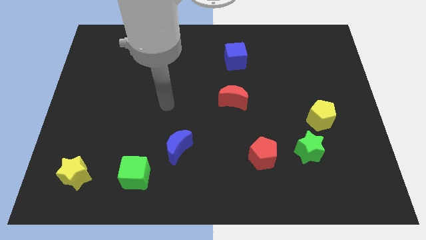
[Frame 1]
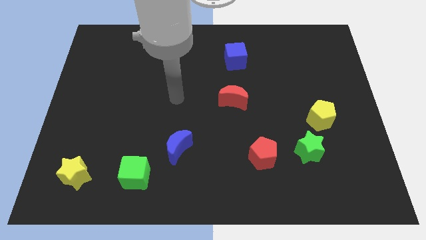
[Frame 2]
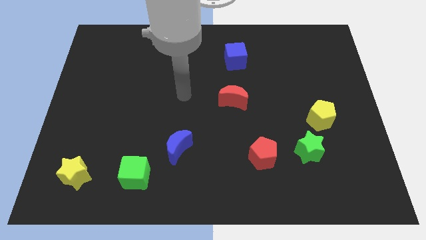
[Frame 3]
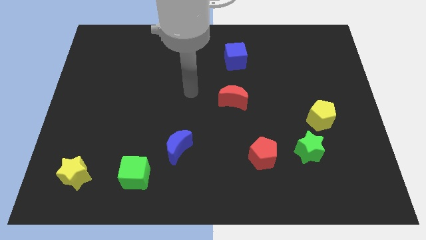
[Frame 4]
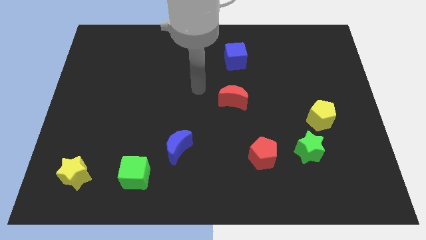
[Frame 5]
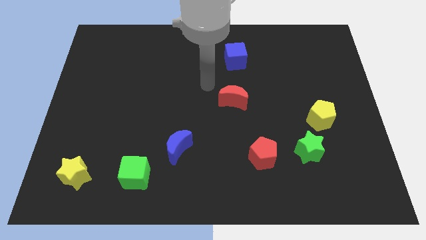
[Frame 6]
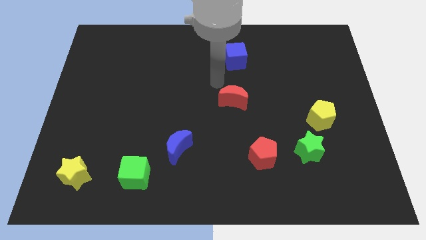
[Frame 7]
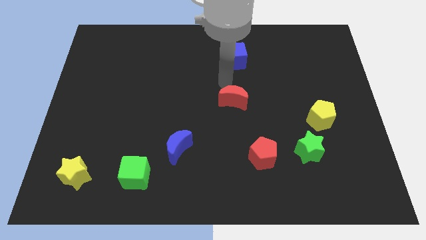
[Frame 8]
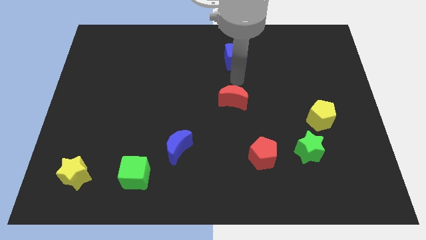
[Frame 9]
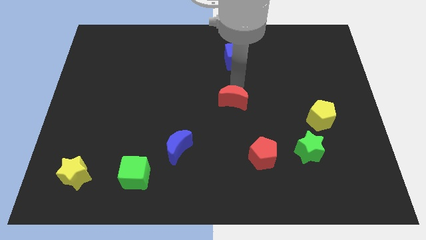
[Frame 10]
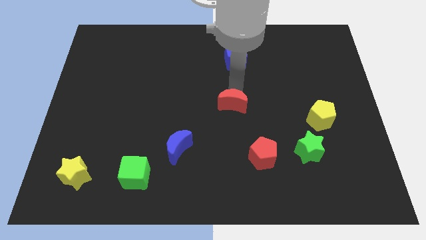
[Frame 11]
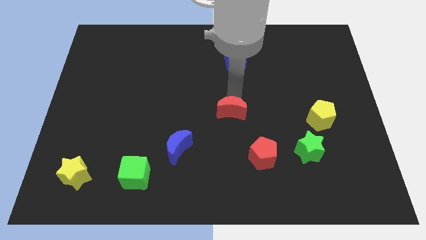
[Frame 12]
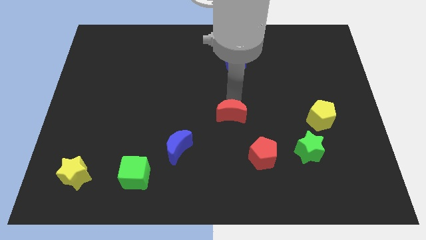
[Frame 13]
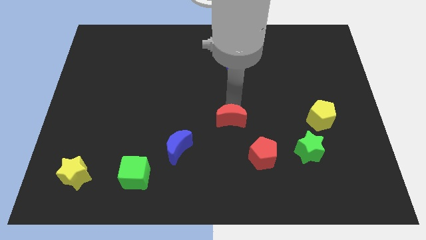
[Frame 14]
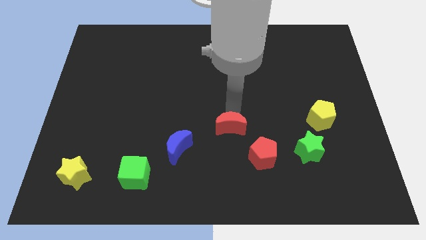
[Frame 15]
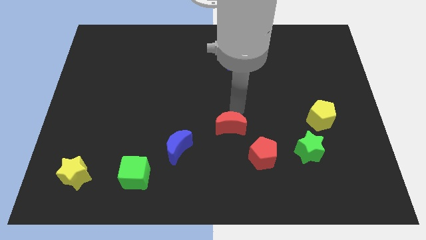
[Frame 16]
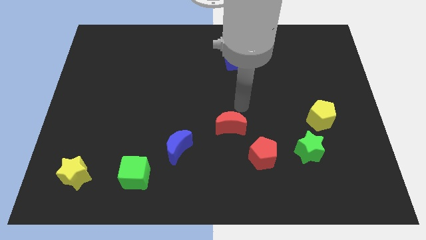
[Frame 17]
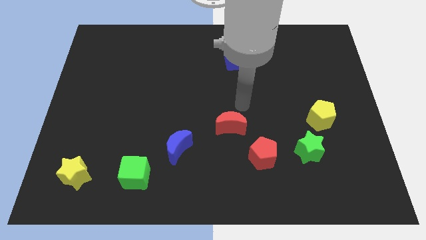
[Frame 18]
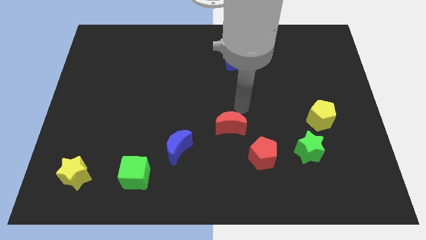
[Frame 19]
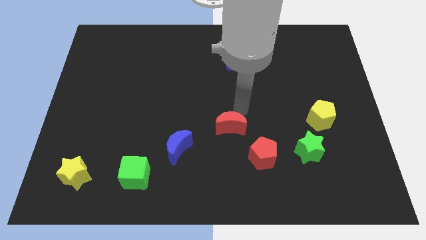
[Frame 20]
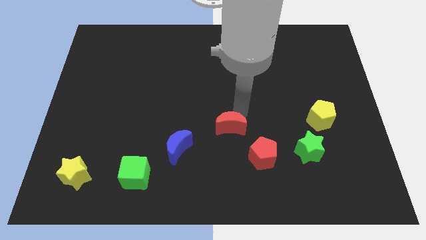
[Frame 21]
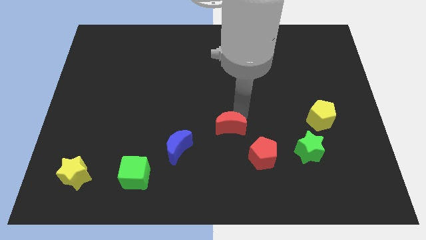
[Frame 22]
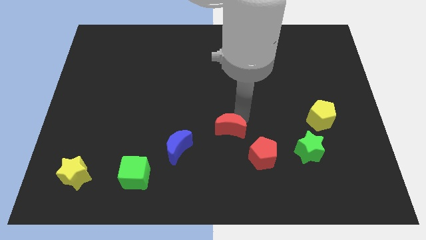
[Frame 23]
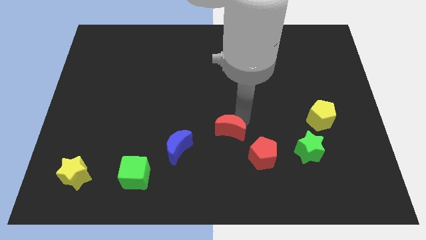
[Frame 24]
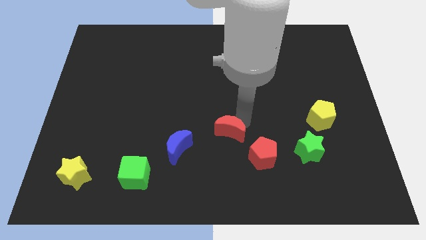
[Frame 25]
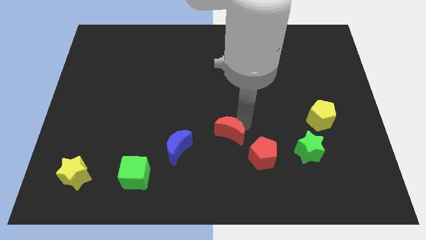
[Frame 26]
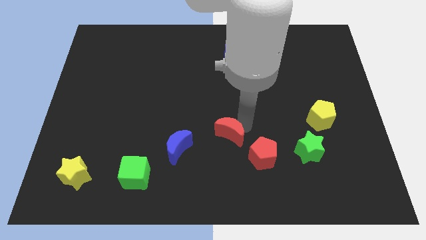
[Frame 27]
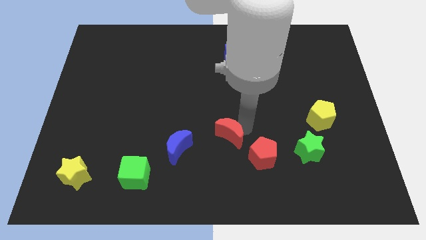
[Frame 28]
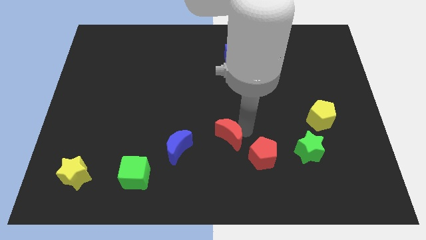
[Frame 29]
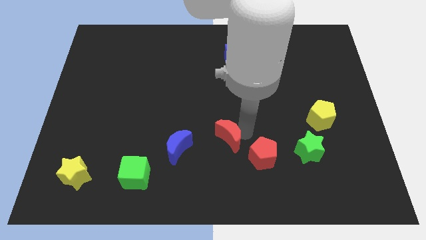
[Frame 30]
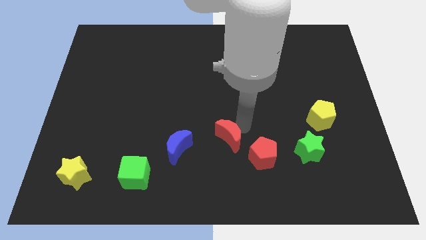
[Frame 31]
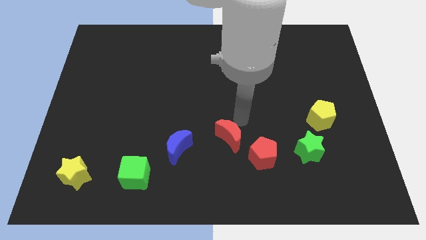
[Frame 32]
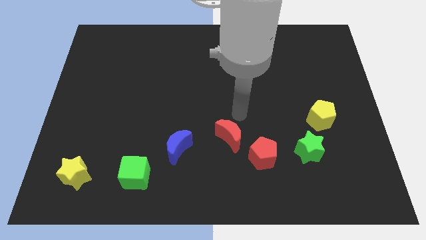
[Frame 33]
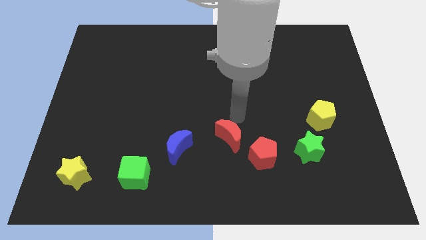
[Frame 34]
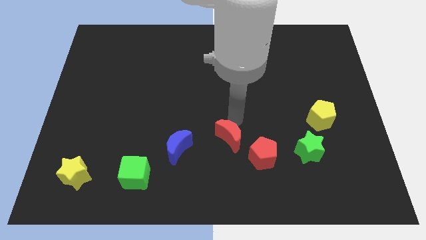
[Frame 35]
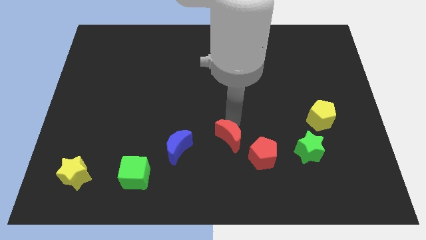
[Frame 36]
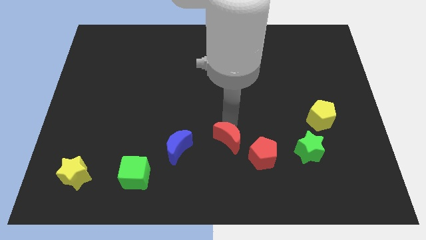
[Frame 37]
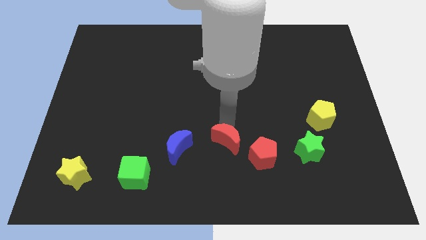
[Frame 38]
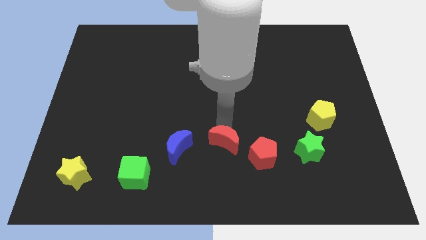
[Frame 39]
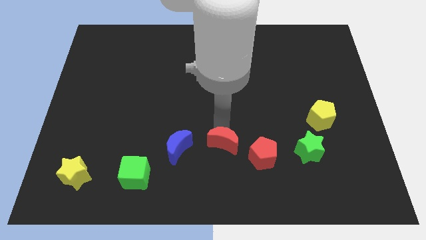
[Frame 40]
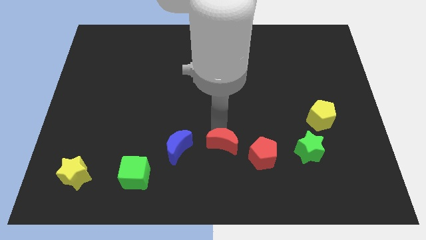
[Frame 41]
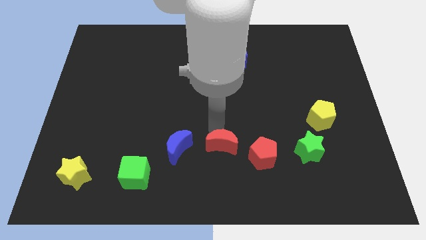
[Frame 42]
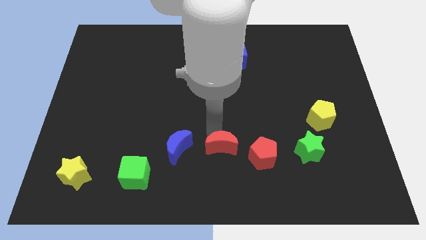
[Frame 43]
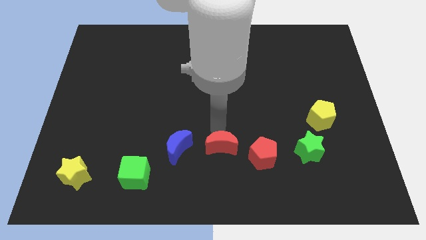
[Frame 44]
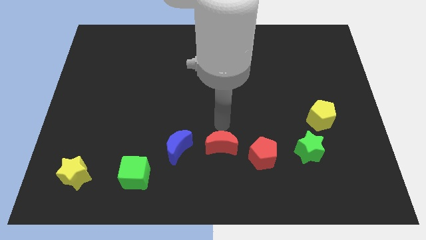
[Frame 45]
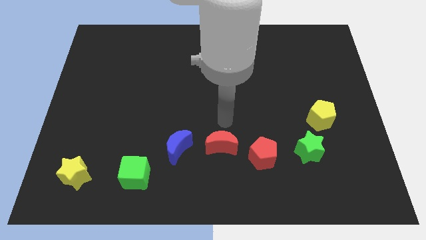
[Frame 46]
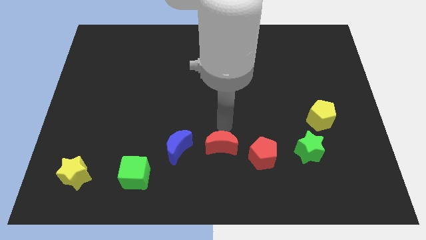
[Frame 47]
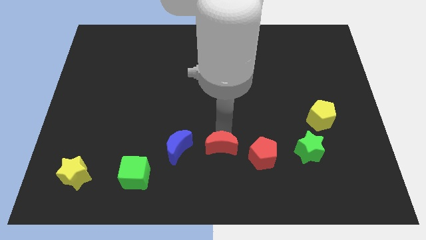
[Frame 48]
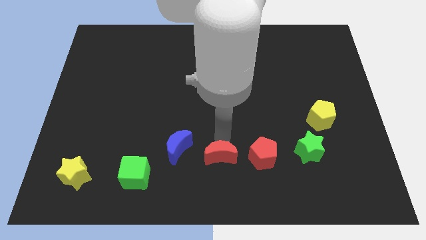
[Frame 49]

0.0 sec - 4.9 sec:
push the red moon to the bottom

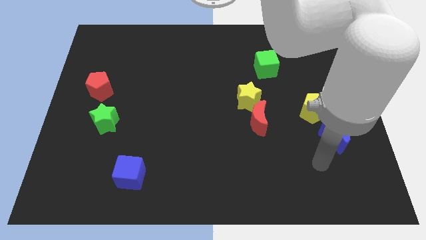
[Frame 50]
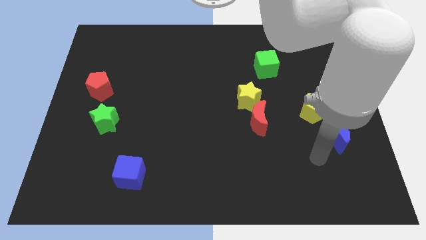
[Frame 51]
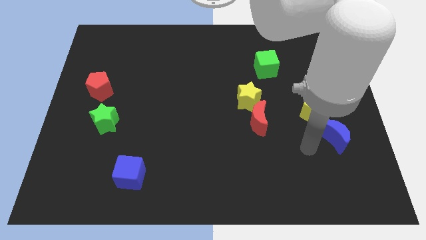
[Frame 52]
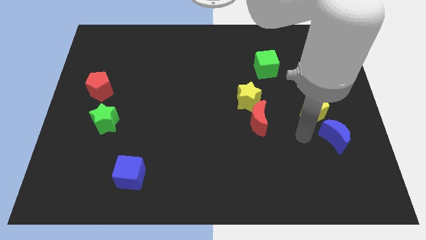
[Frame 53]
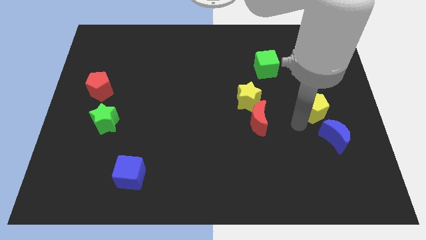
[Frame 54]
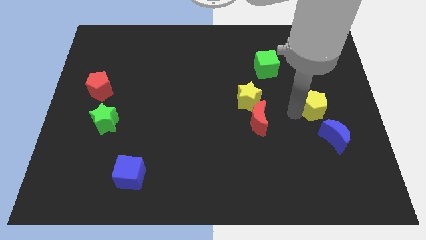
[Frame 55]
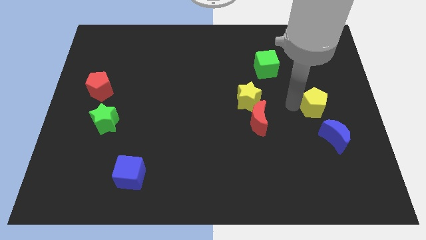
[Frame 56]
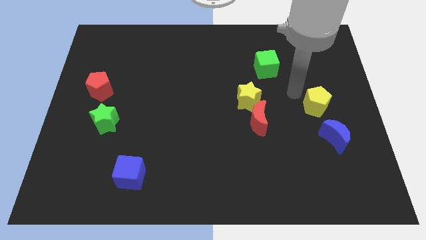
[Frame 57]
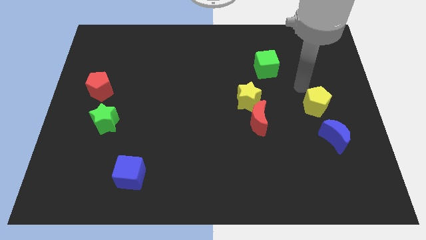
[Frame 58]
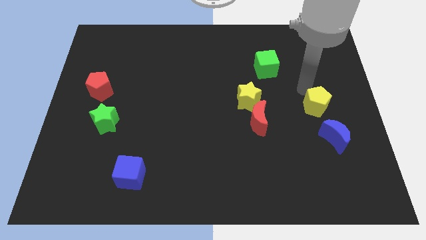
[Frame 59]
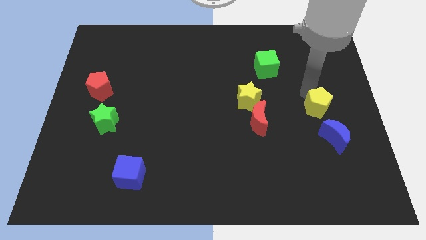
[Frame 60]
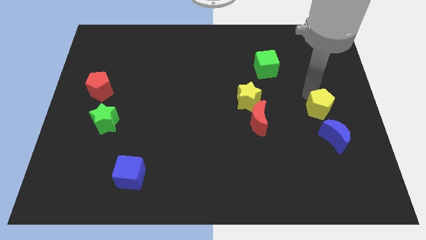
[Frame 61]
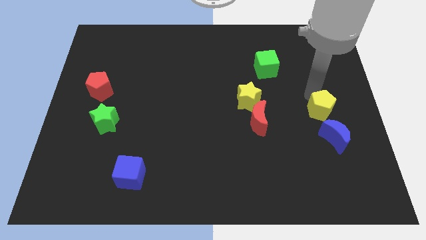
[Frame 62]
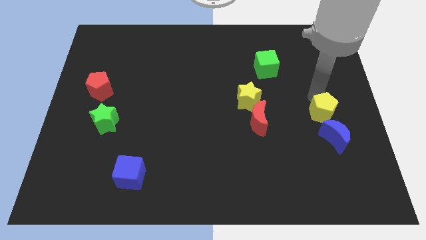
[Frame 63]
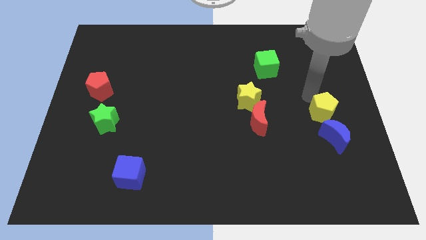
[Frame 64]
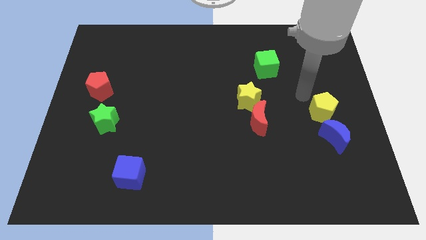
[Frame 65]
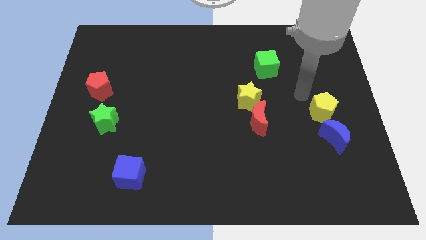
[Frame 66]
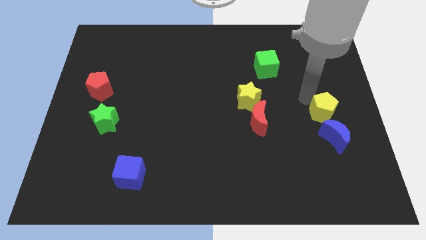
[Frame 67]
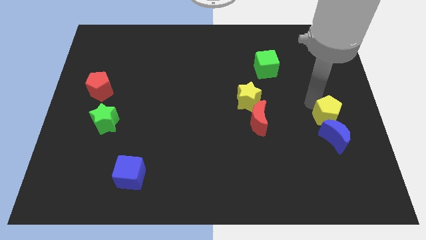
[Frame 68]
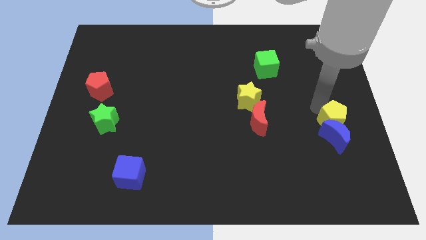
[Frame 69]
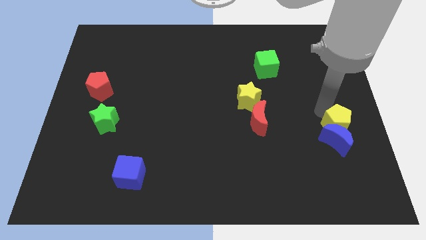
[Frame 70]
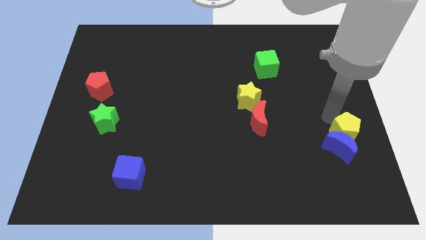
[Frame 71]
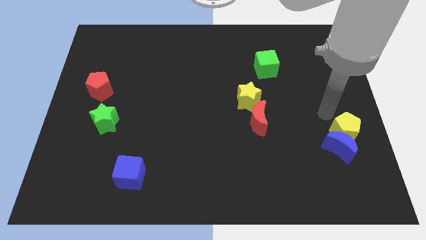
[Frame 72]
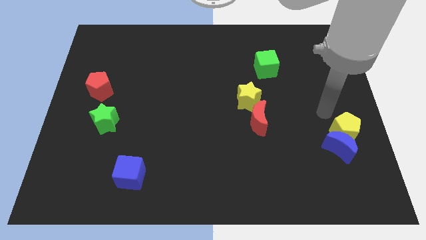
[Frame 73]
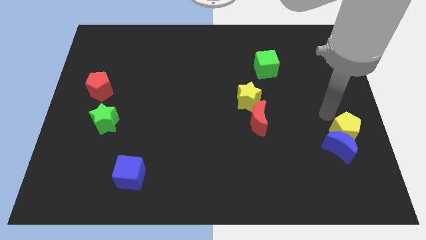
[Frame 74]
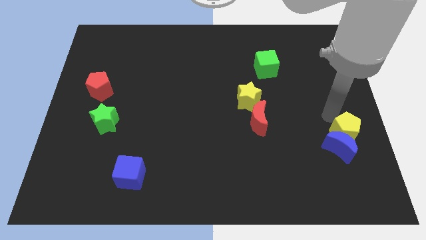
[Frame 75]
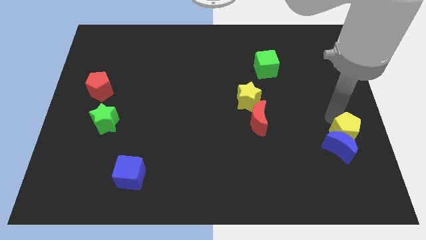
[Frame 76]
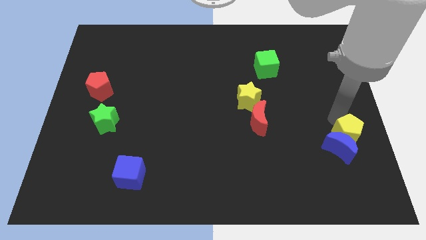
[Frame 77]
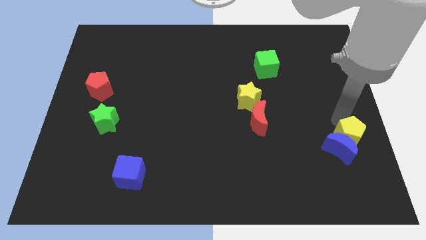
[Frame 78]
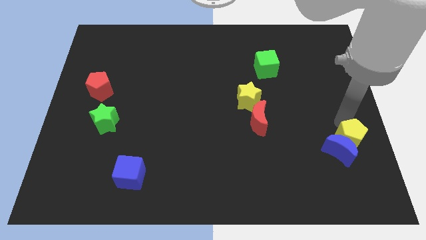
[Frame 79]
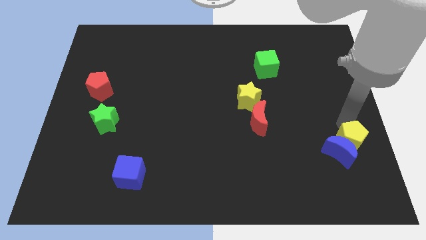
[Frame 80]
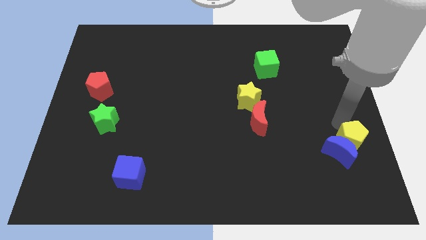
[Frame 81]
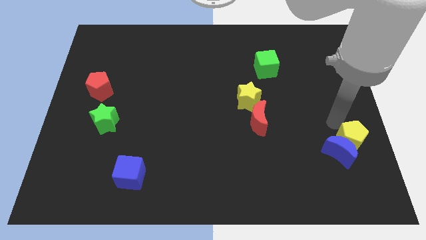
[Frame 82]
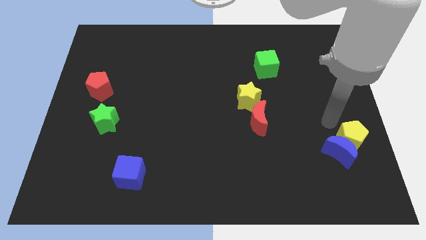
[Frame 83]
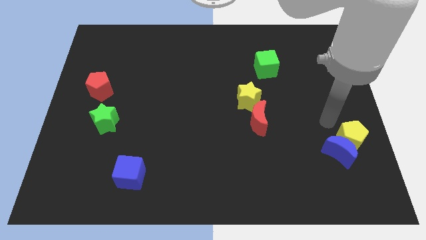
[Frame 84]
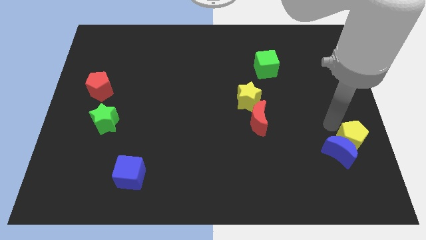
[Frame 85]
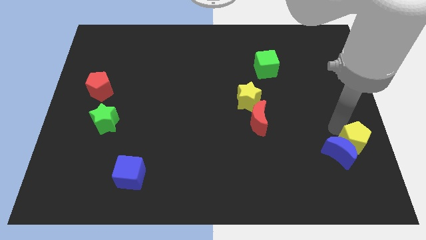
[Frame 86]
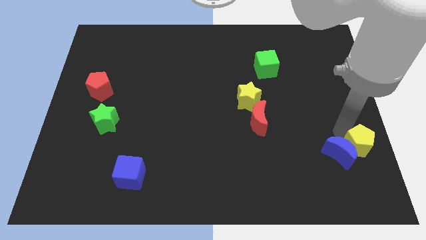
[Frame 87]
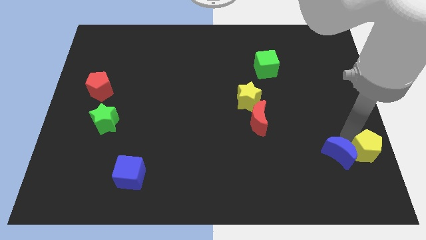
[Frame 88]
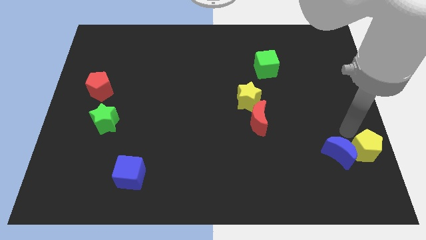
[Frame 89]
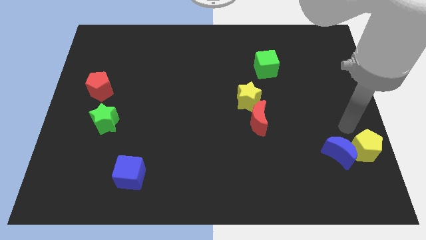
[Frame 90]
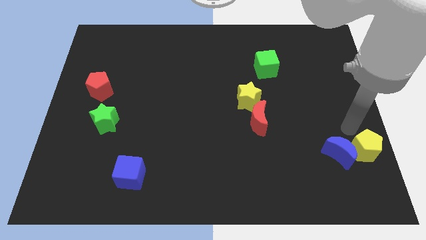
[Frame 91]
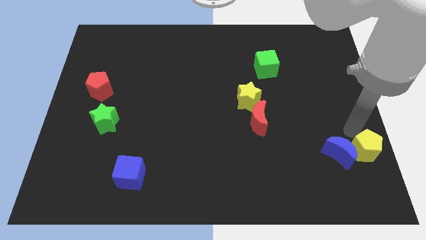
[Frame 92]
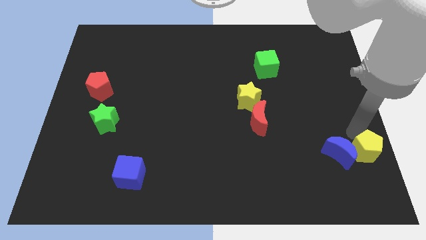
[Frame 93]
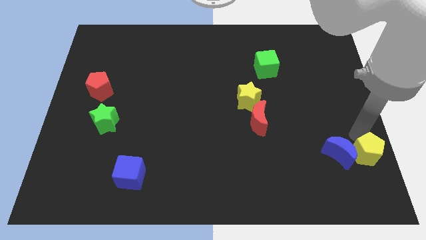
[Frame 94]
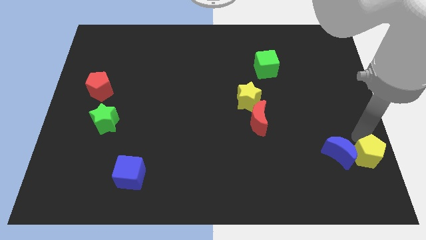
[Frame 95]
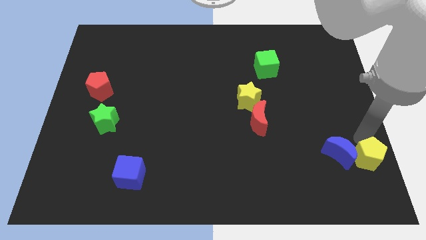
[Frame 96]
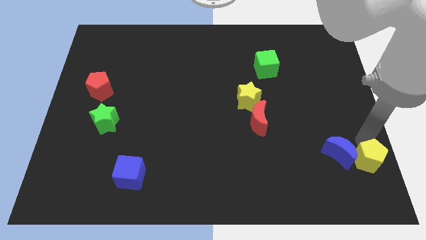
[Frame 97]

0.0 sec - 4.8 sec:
slide the yellow pentagon to the lower right corner
